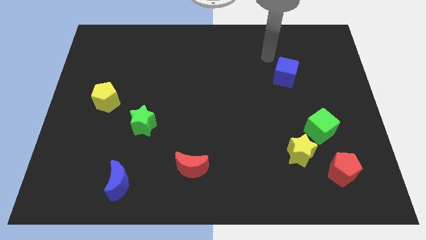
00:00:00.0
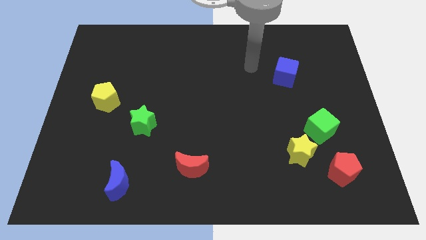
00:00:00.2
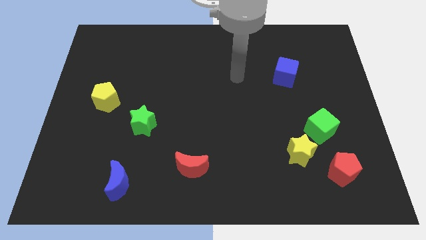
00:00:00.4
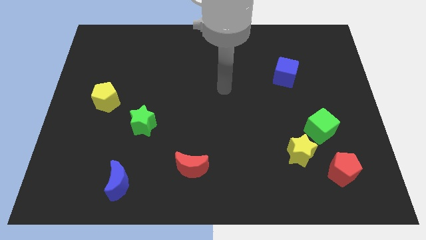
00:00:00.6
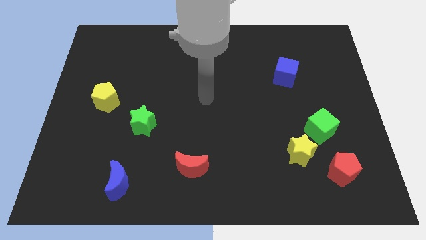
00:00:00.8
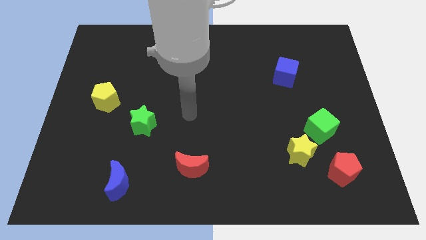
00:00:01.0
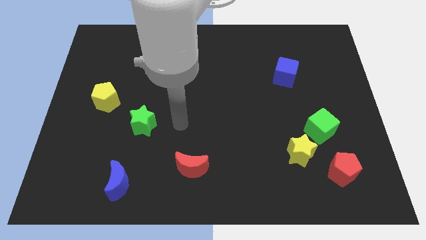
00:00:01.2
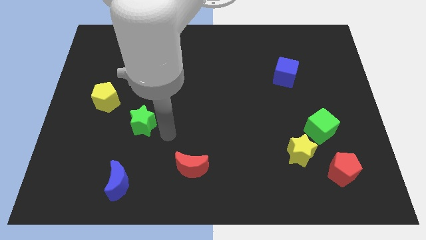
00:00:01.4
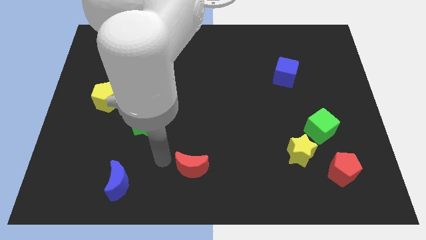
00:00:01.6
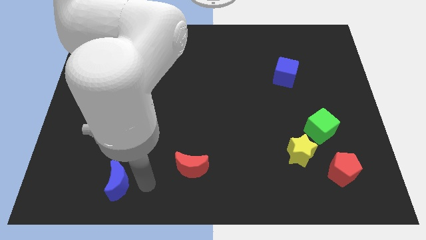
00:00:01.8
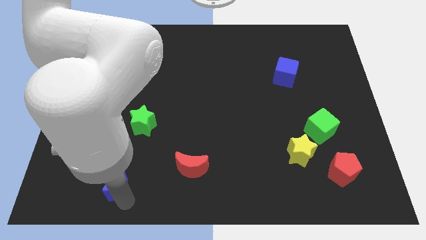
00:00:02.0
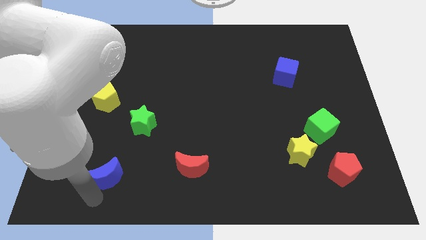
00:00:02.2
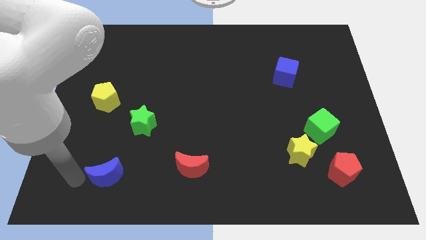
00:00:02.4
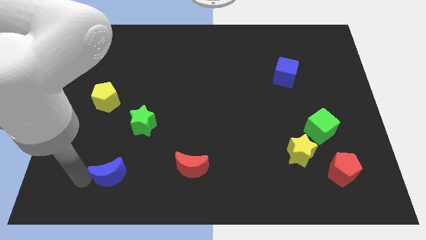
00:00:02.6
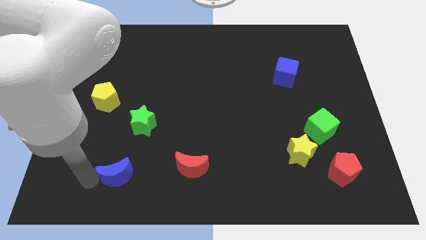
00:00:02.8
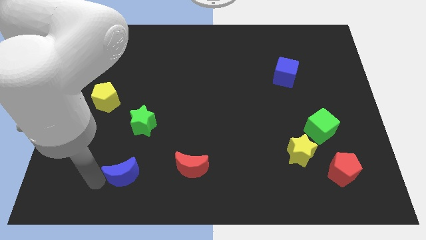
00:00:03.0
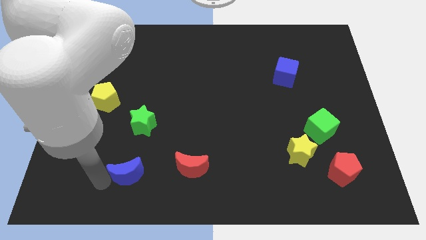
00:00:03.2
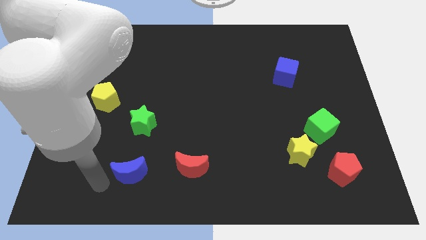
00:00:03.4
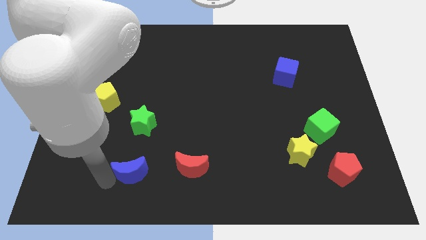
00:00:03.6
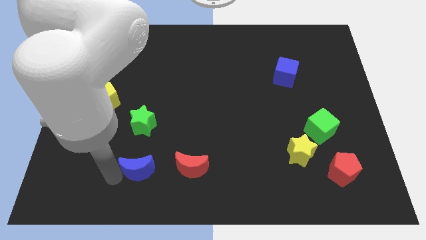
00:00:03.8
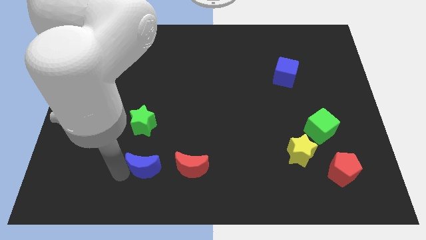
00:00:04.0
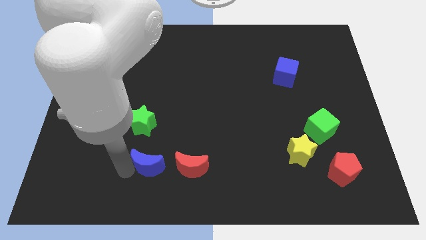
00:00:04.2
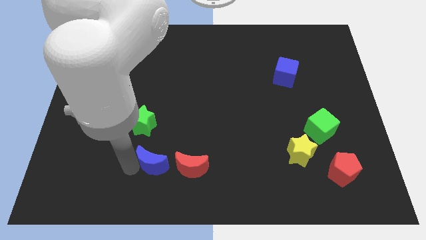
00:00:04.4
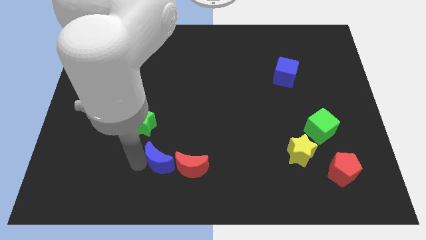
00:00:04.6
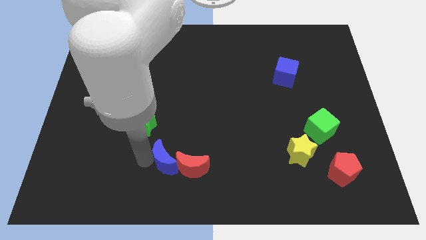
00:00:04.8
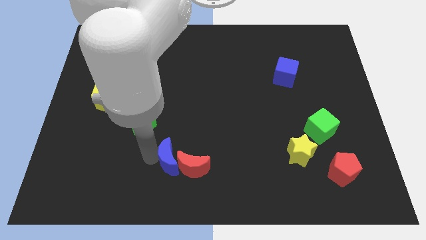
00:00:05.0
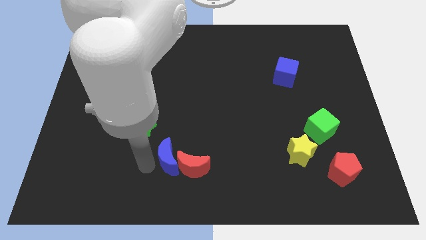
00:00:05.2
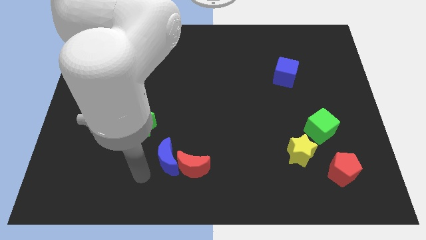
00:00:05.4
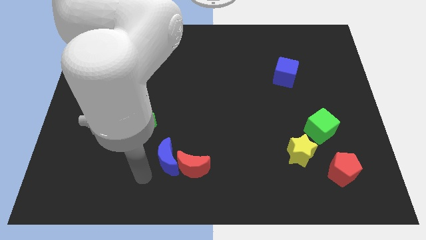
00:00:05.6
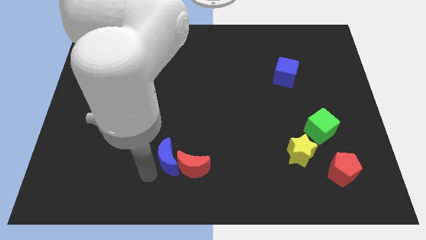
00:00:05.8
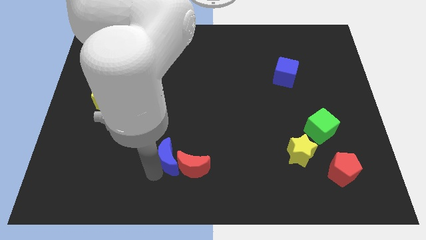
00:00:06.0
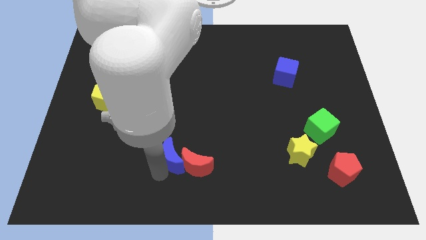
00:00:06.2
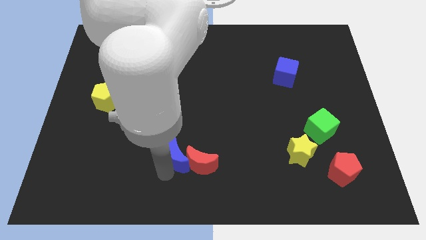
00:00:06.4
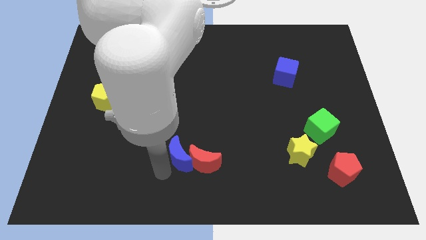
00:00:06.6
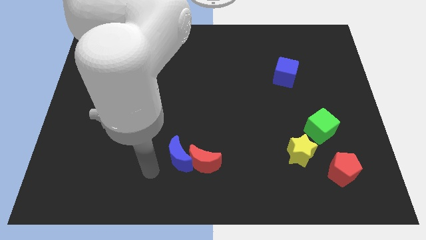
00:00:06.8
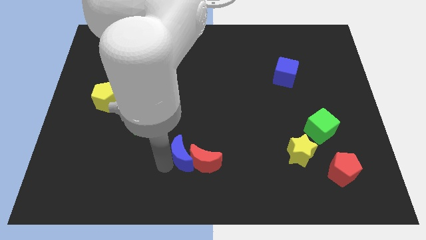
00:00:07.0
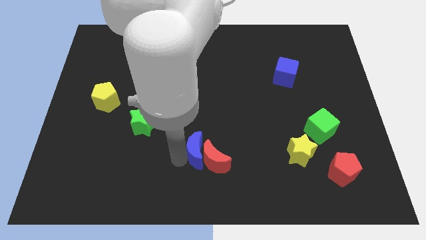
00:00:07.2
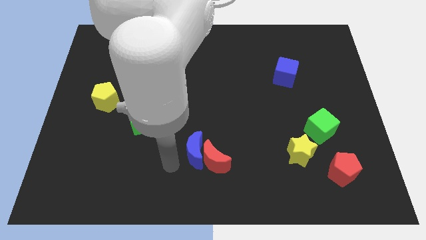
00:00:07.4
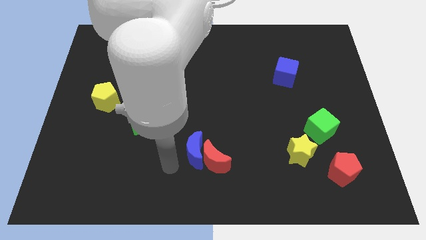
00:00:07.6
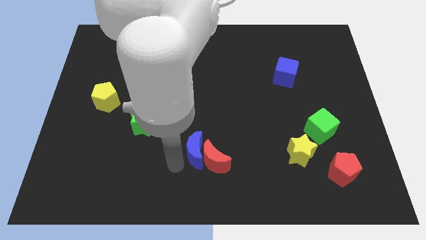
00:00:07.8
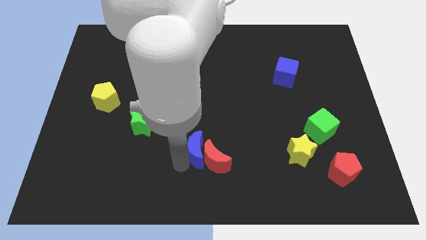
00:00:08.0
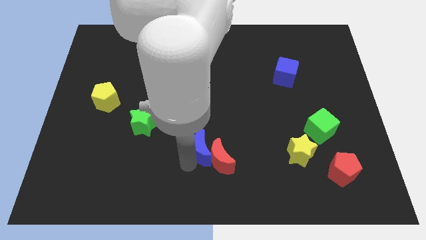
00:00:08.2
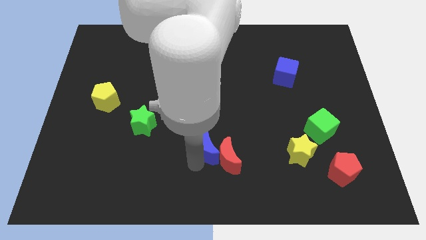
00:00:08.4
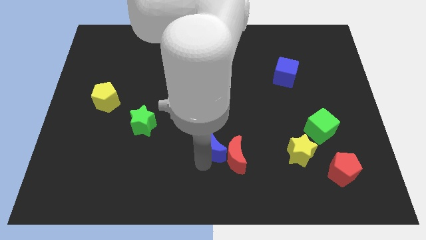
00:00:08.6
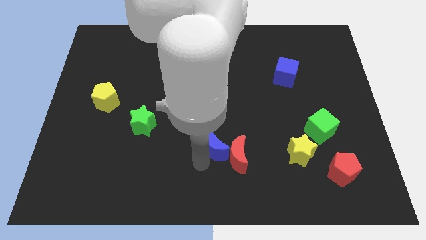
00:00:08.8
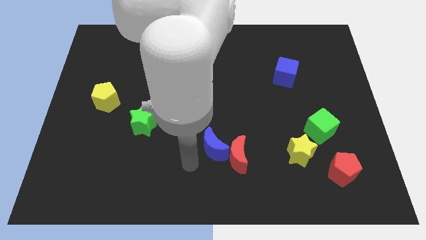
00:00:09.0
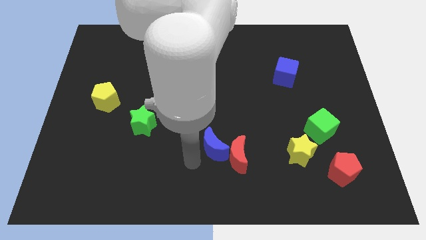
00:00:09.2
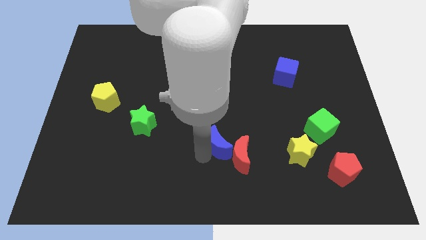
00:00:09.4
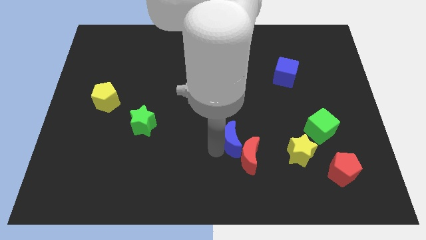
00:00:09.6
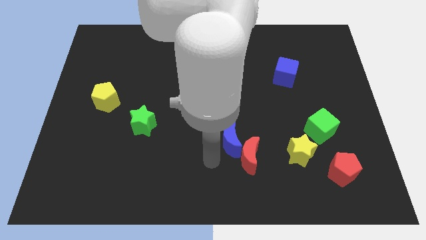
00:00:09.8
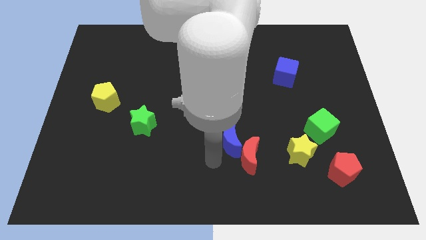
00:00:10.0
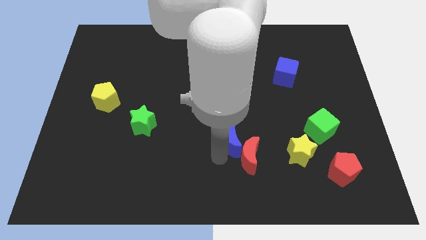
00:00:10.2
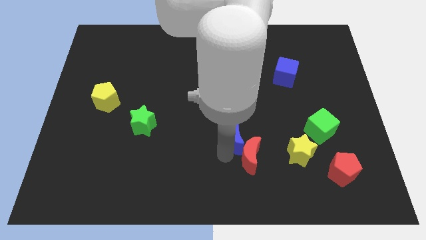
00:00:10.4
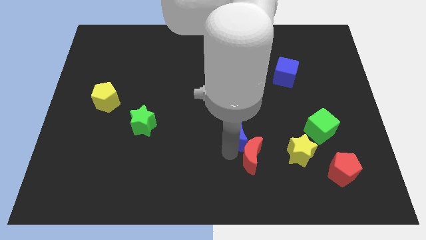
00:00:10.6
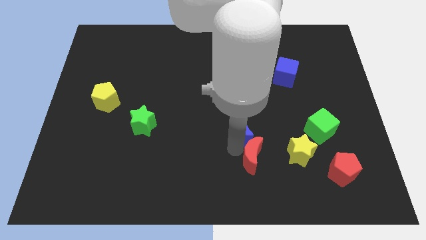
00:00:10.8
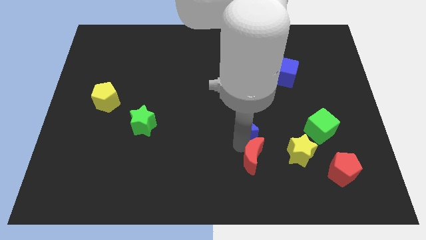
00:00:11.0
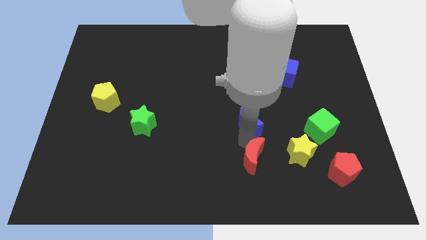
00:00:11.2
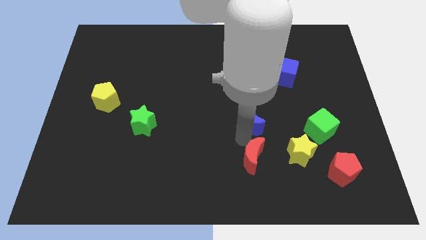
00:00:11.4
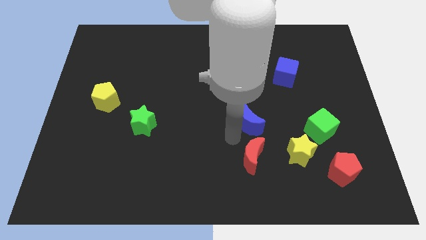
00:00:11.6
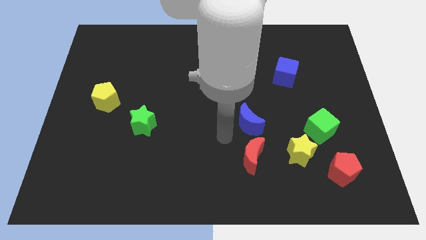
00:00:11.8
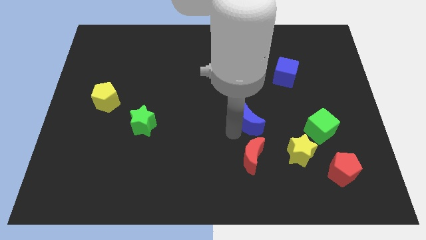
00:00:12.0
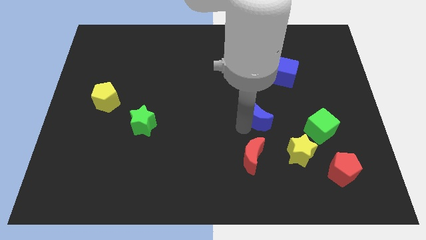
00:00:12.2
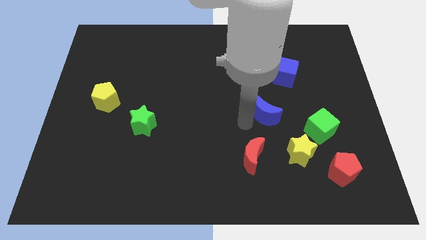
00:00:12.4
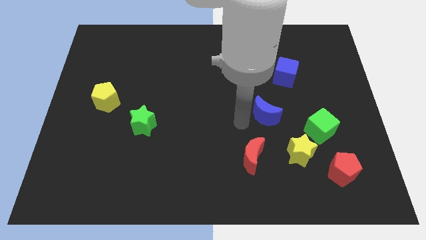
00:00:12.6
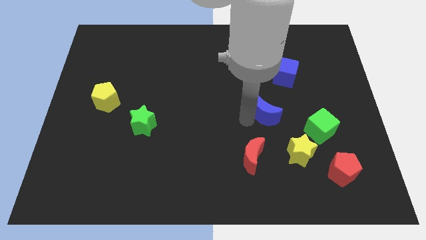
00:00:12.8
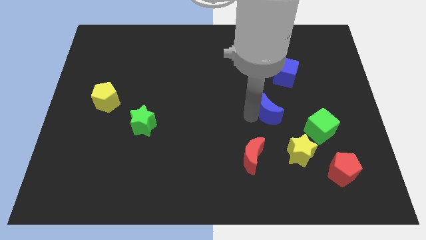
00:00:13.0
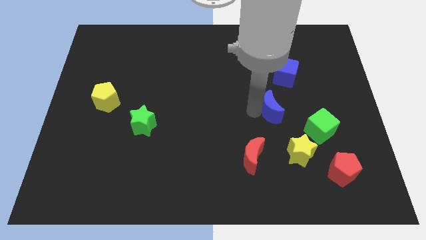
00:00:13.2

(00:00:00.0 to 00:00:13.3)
put the blue moon below the blue cube

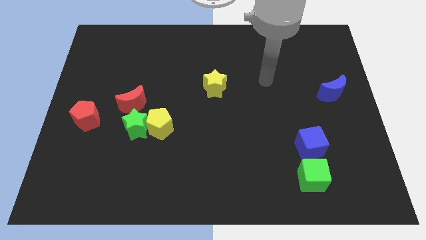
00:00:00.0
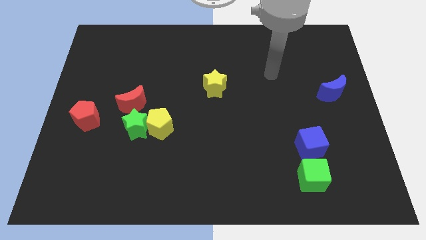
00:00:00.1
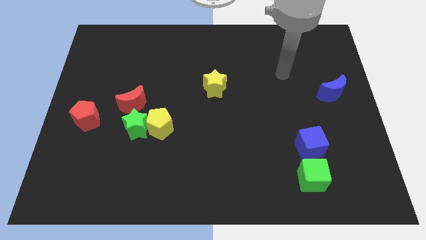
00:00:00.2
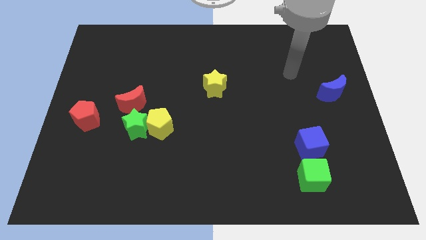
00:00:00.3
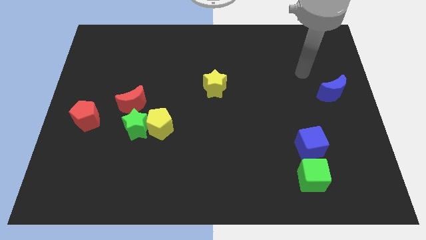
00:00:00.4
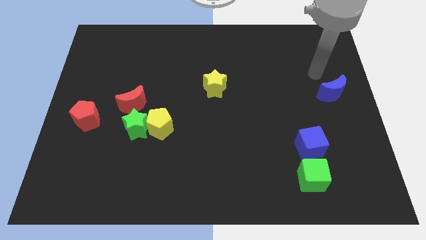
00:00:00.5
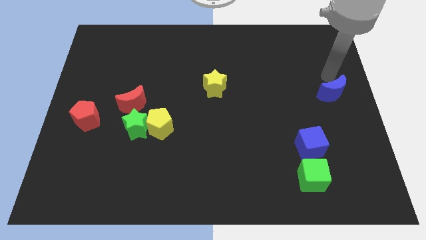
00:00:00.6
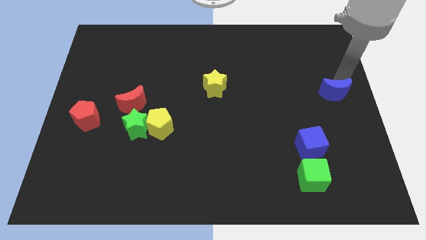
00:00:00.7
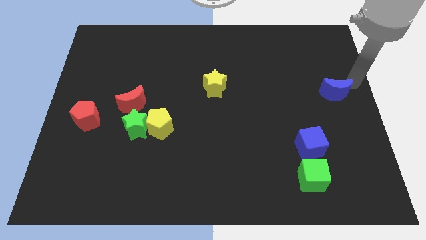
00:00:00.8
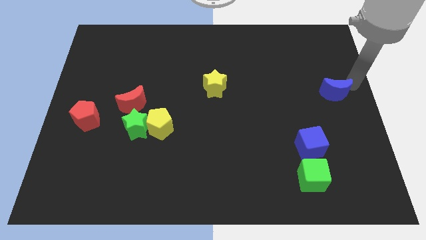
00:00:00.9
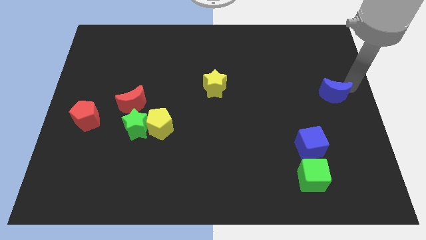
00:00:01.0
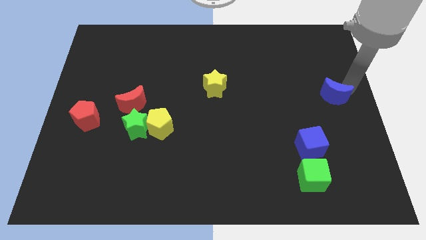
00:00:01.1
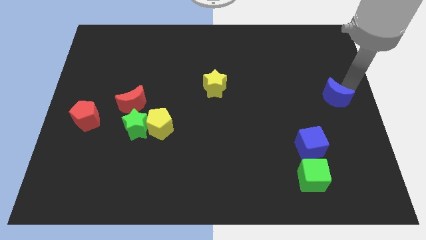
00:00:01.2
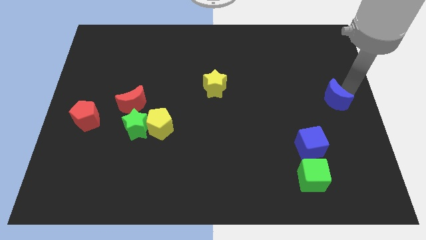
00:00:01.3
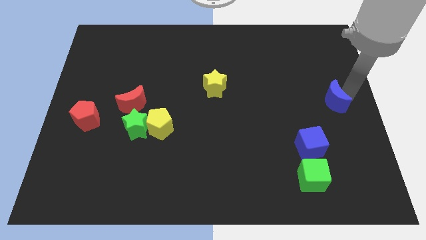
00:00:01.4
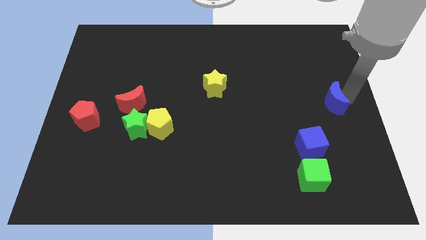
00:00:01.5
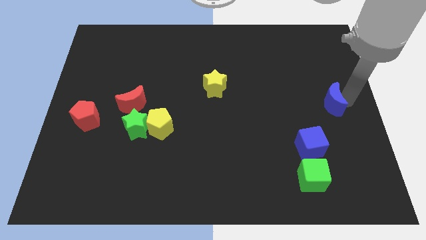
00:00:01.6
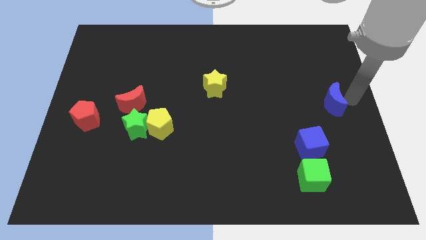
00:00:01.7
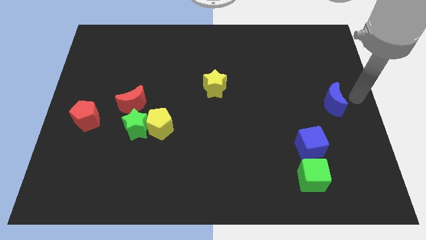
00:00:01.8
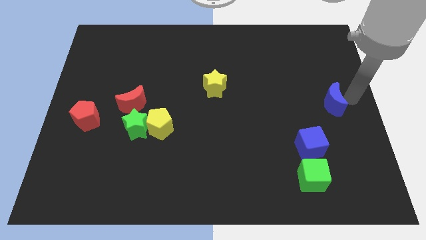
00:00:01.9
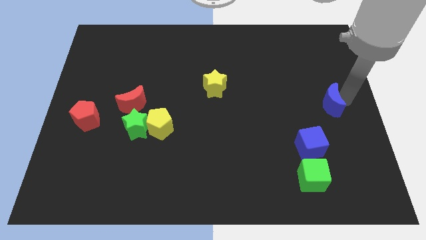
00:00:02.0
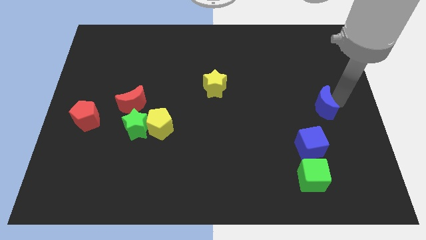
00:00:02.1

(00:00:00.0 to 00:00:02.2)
push the blue moon to the top of the blue cube
